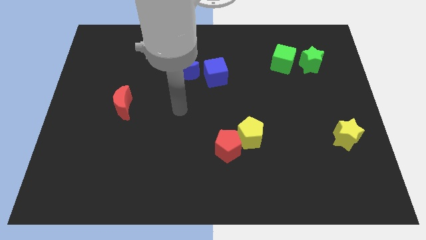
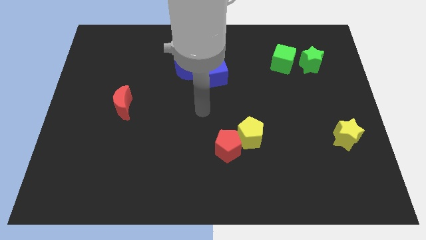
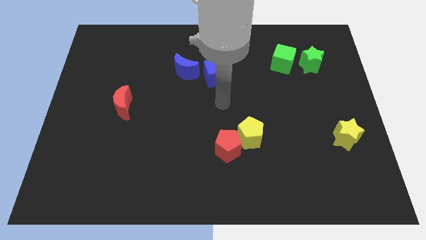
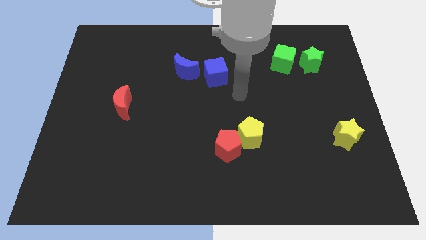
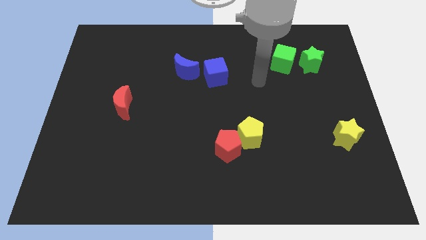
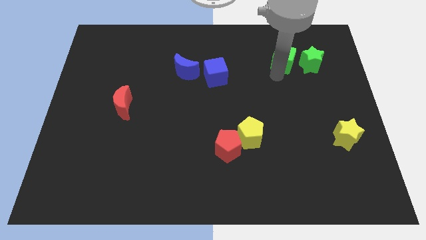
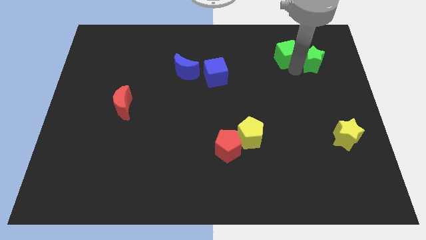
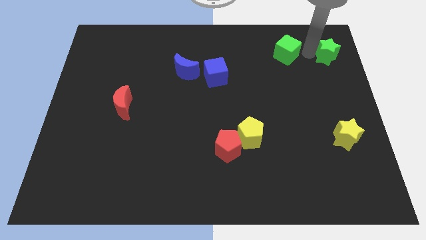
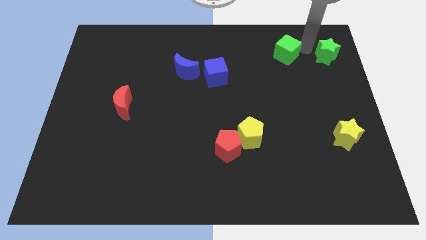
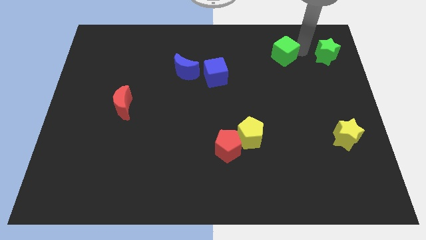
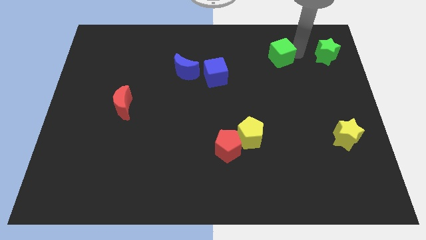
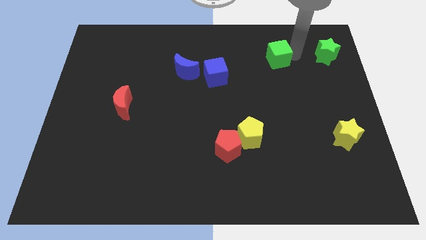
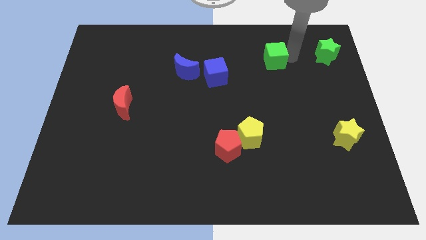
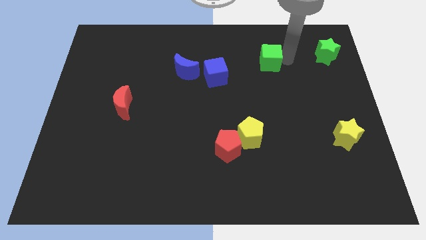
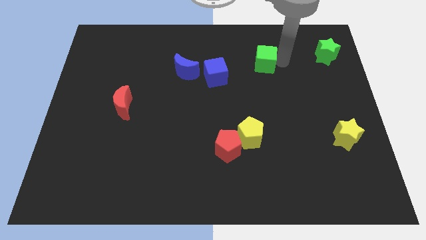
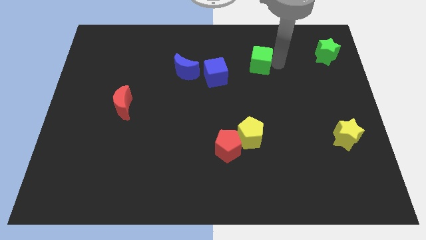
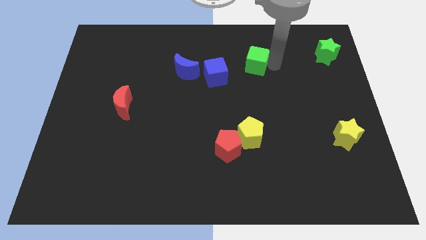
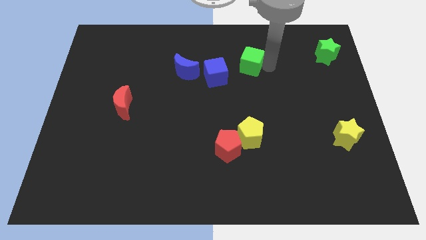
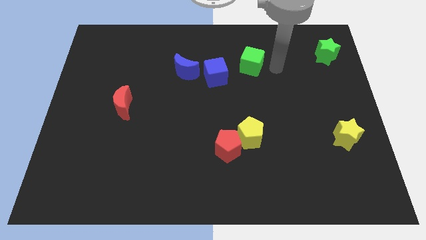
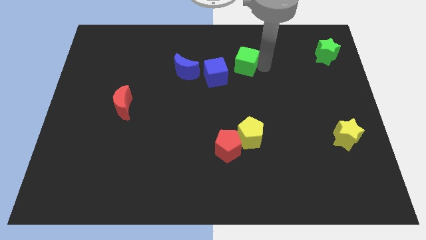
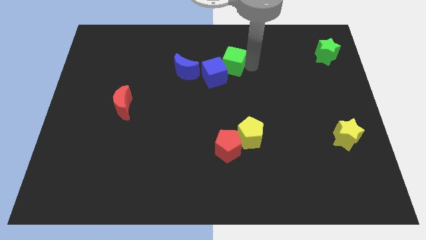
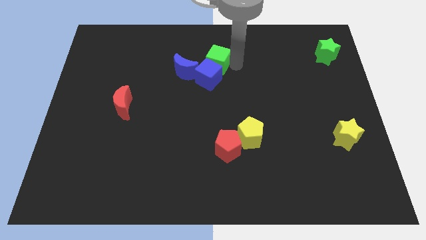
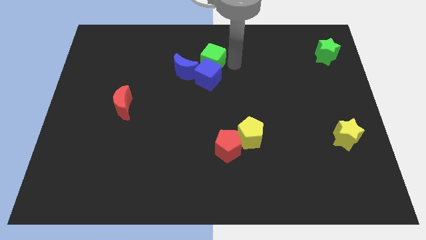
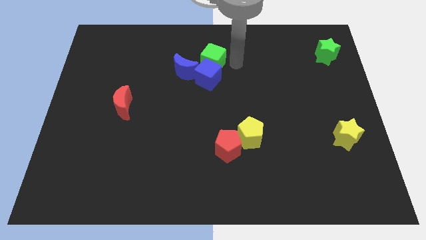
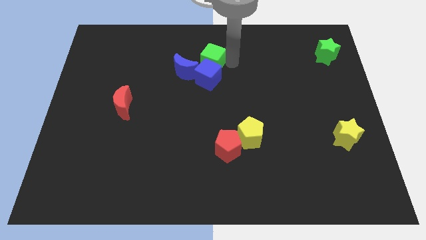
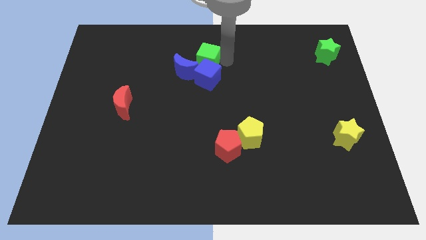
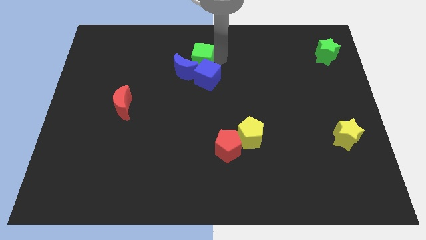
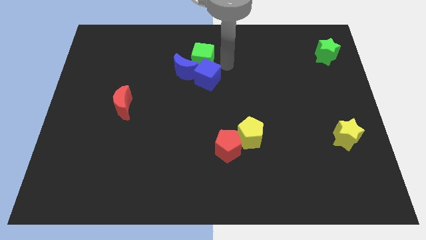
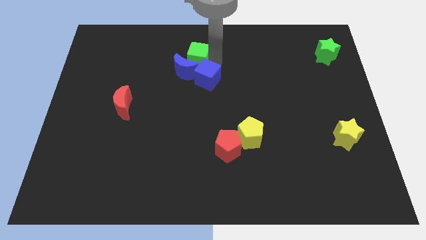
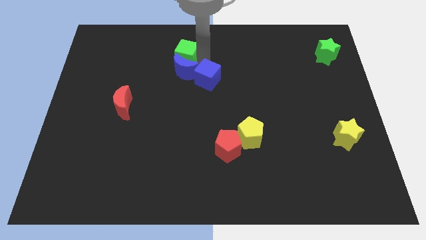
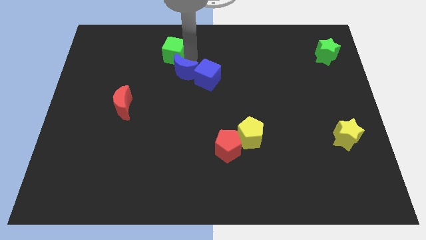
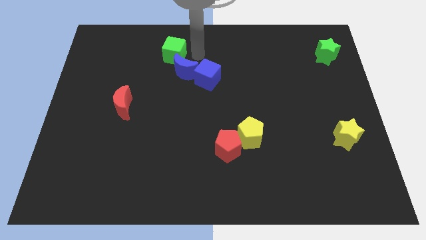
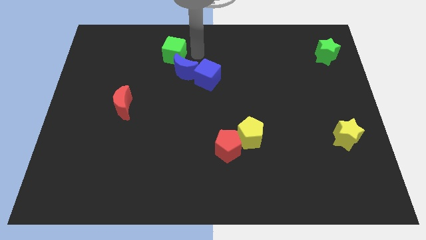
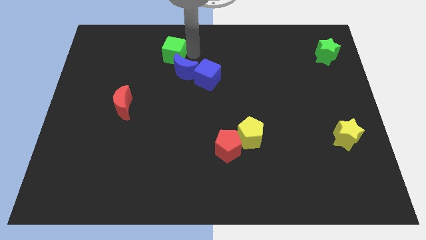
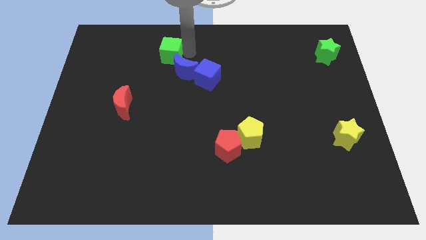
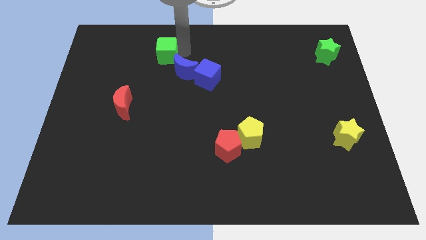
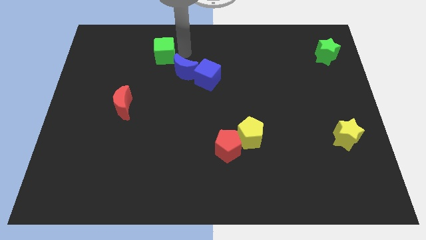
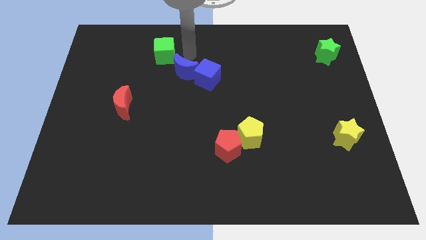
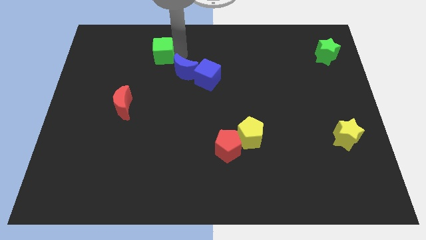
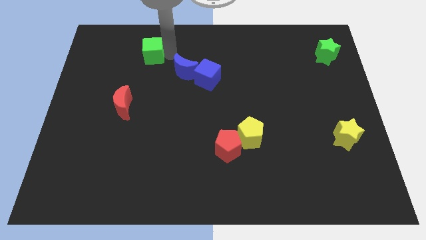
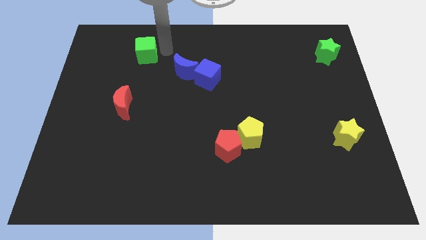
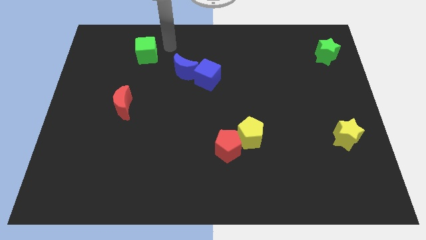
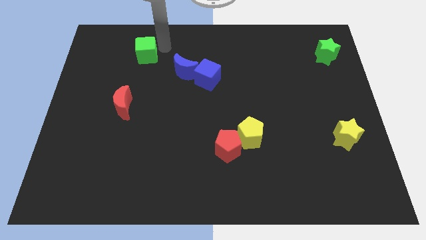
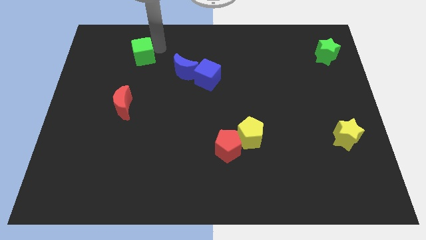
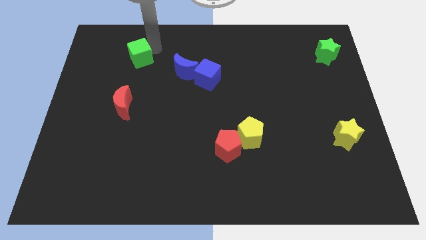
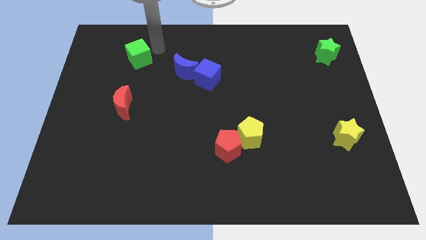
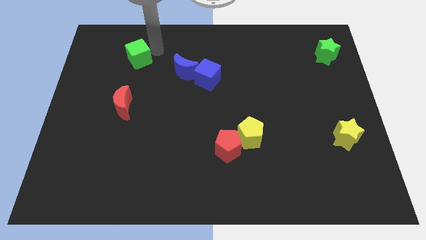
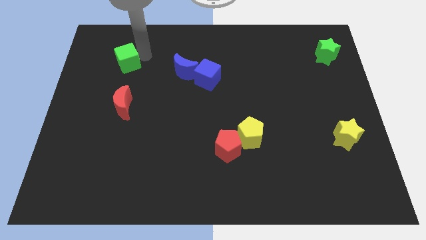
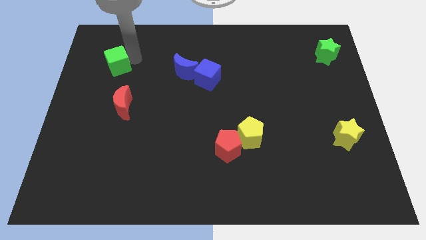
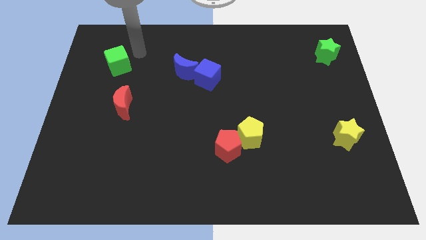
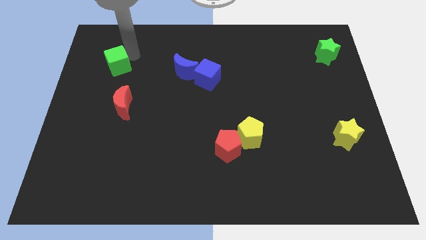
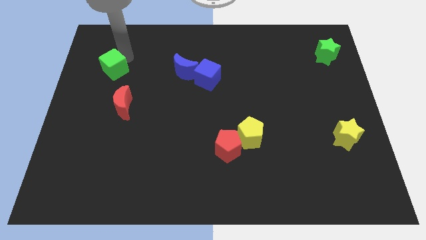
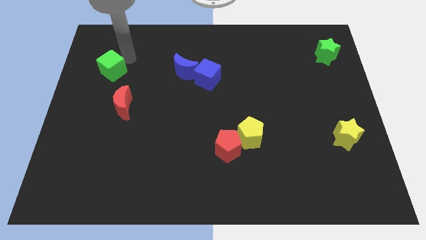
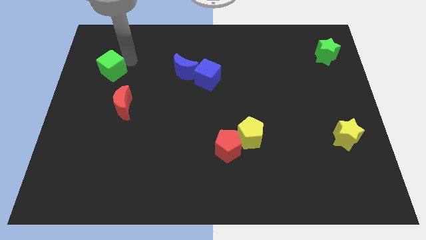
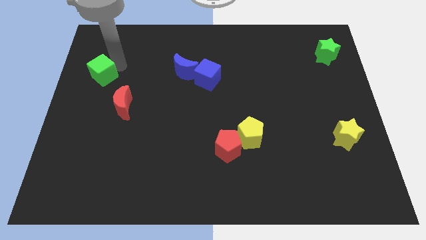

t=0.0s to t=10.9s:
move the green cube to the center left

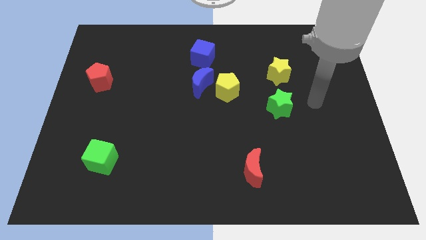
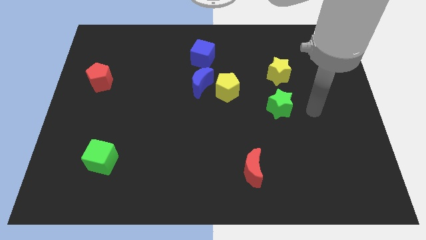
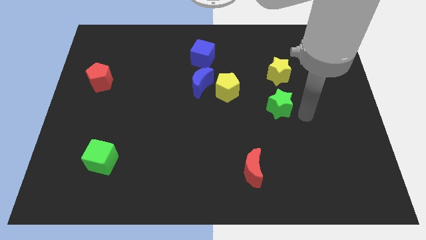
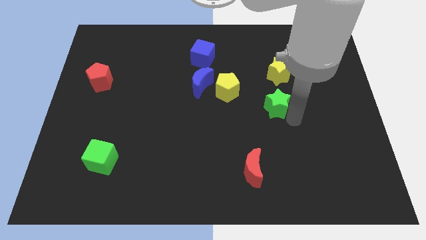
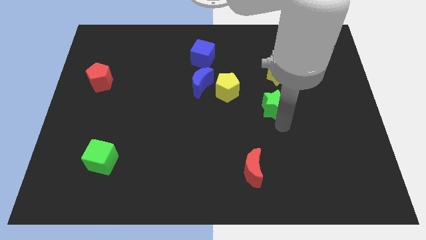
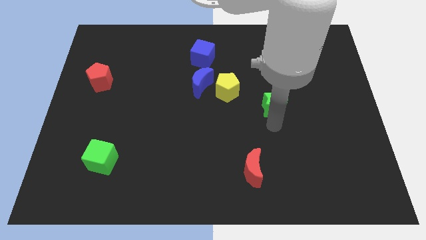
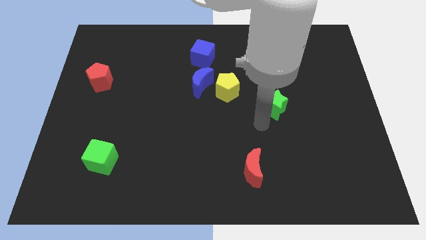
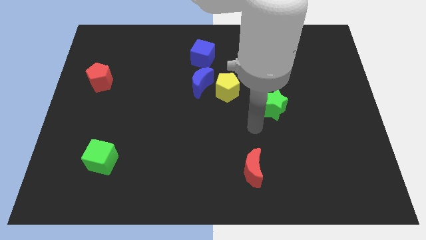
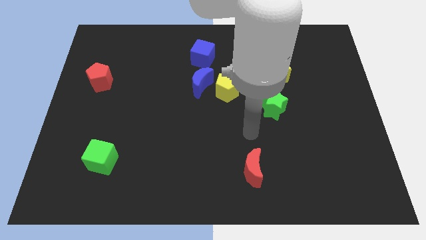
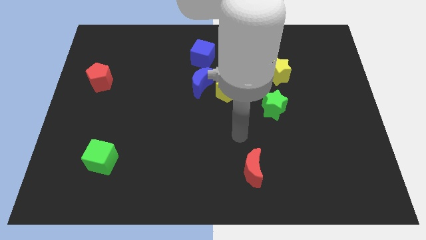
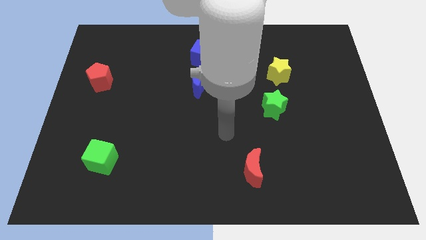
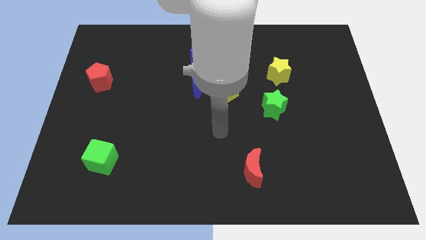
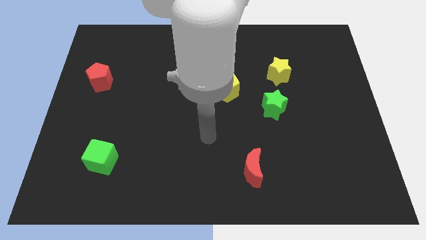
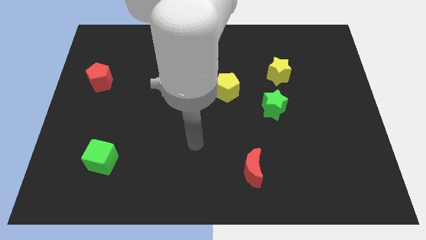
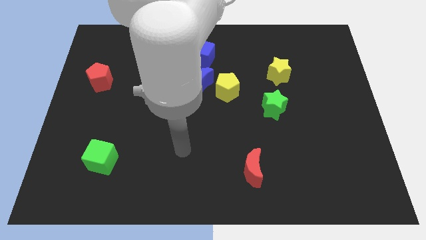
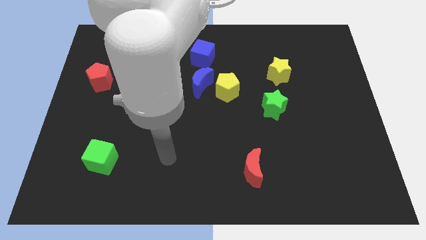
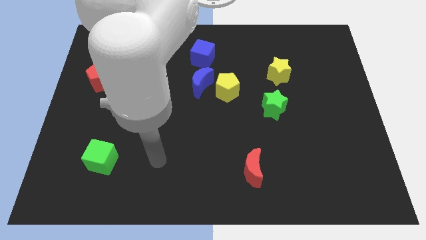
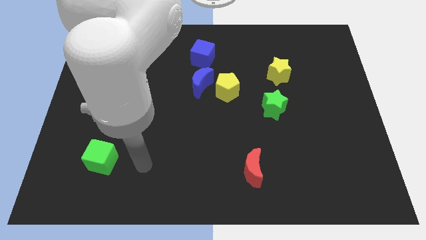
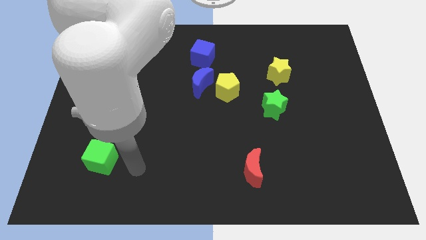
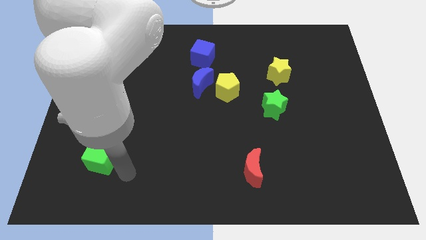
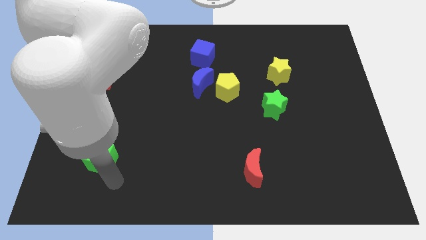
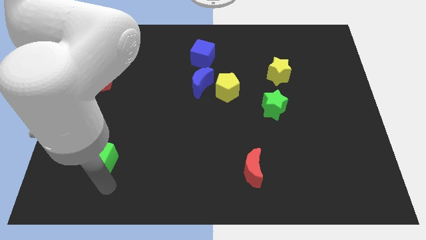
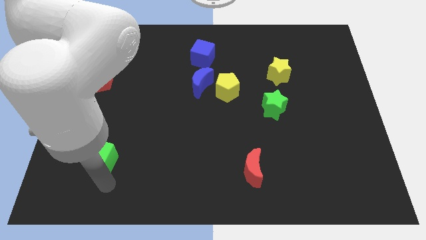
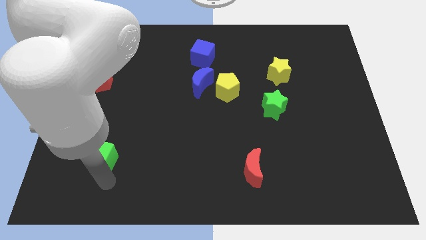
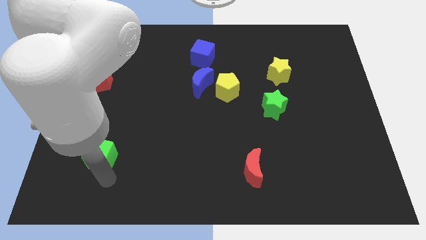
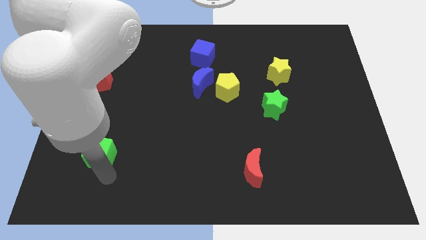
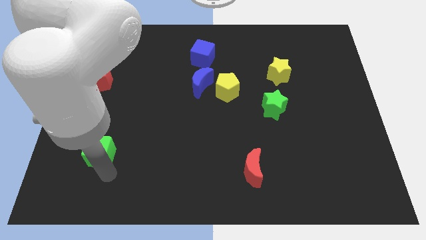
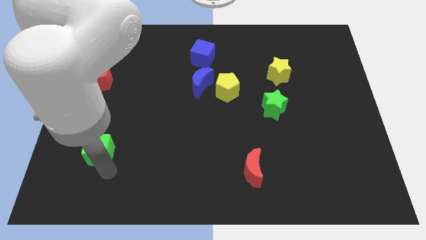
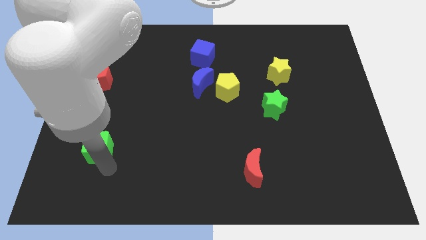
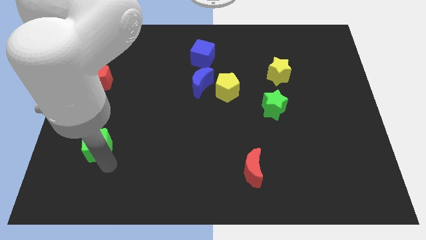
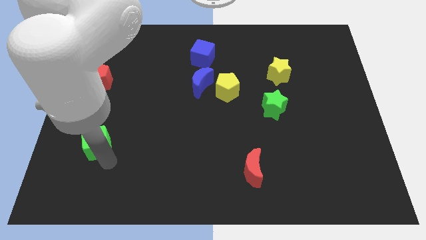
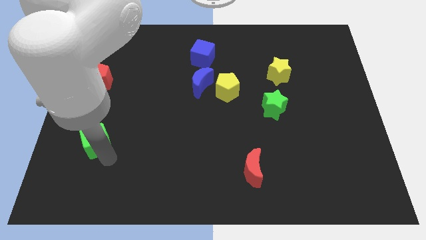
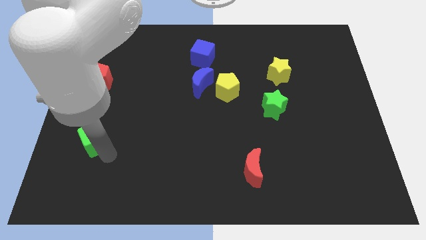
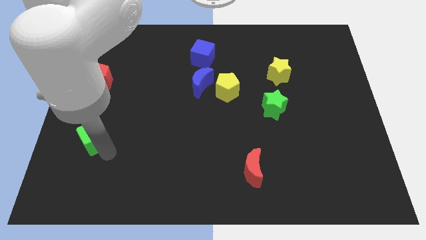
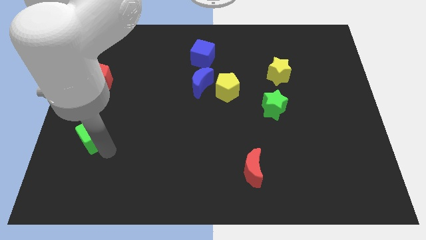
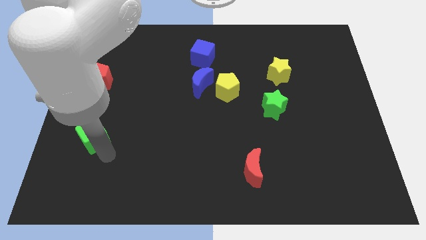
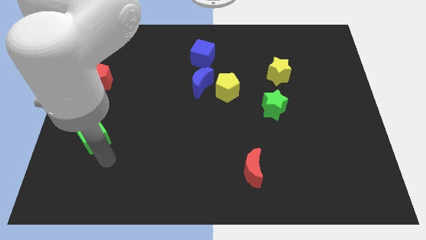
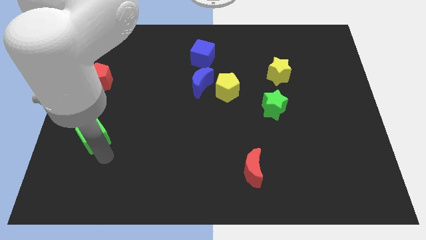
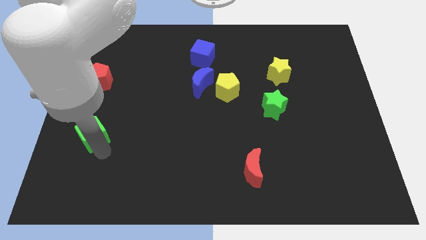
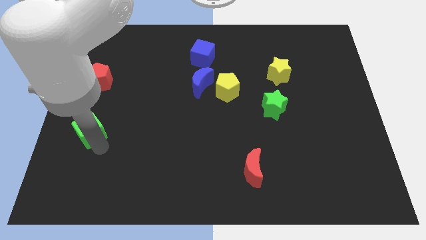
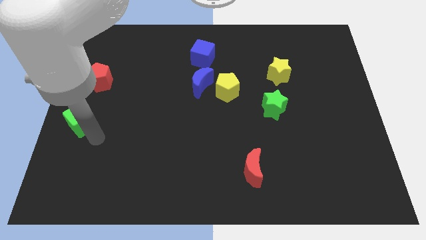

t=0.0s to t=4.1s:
move the green cube to the left side of the board
